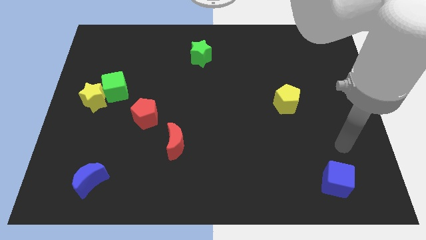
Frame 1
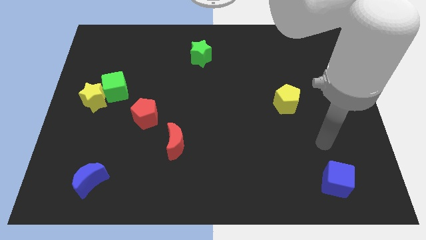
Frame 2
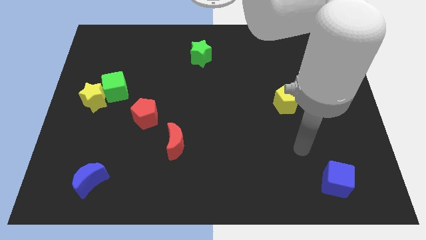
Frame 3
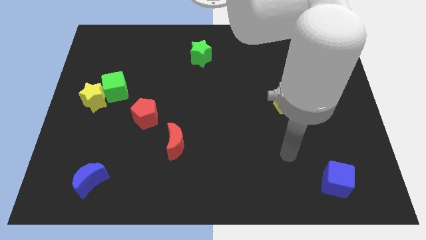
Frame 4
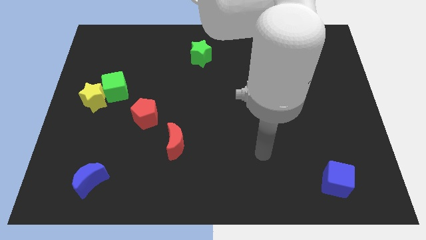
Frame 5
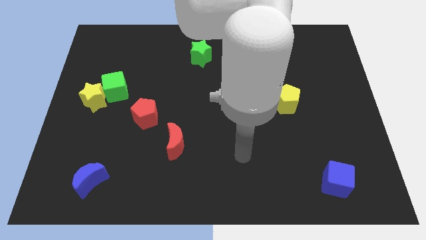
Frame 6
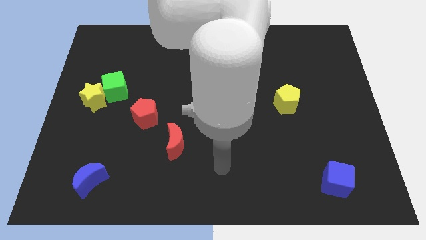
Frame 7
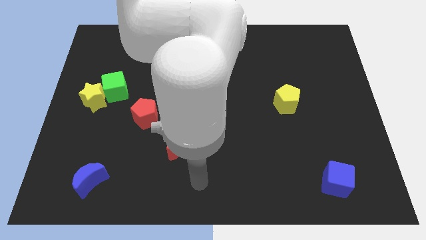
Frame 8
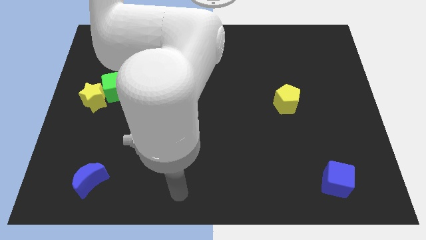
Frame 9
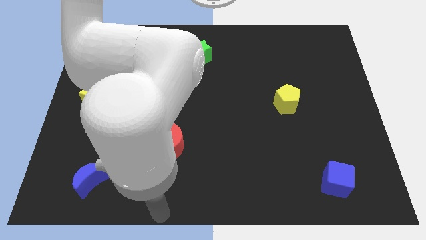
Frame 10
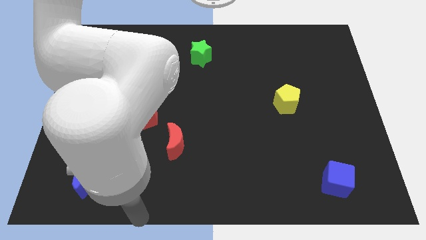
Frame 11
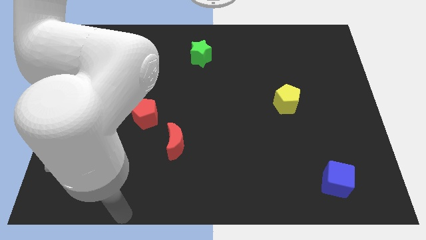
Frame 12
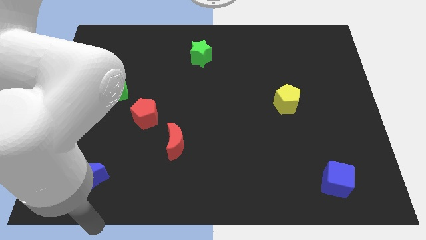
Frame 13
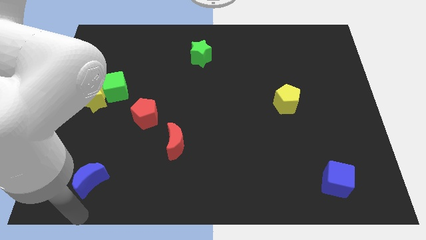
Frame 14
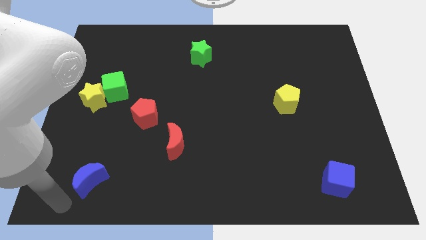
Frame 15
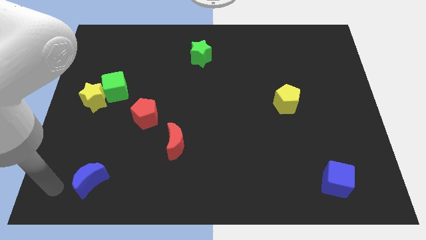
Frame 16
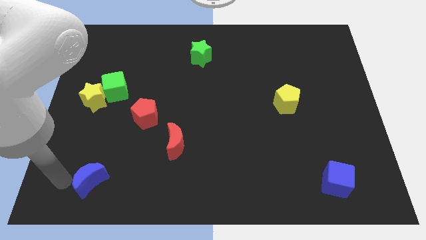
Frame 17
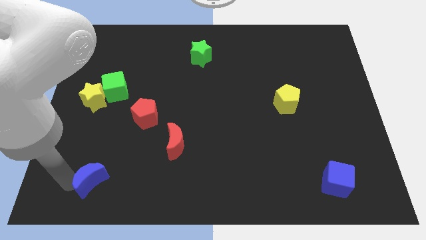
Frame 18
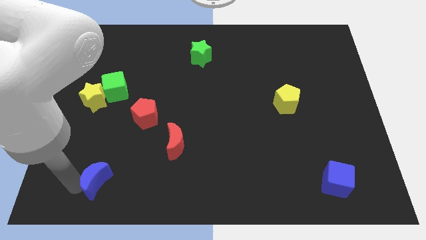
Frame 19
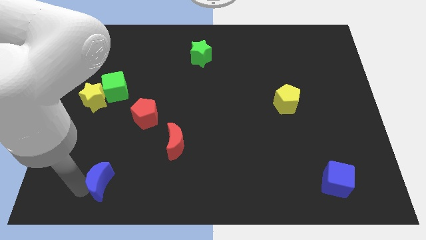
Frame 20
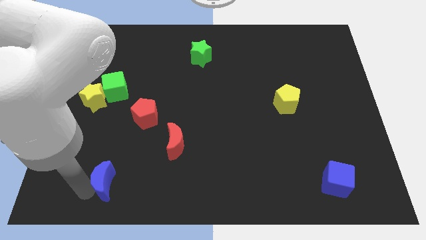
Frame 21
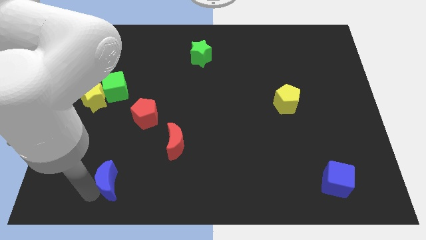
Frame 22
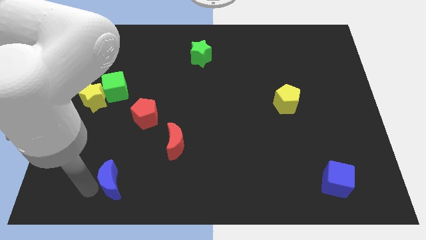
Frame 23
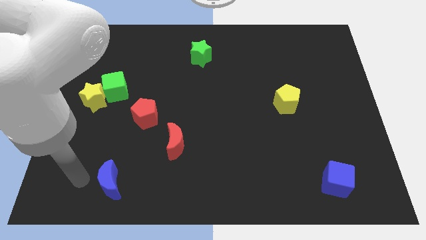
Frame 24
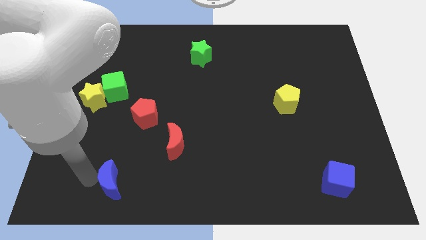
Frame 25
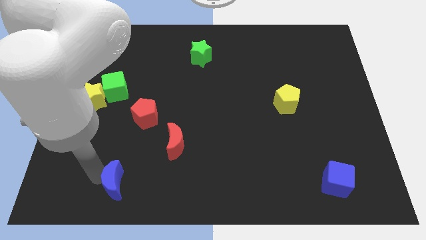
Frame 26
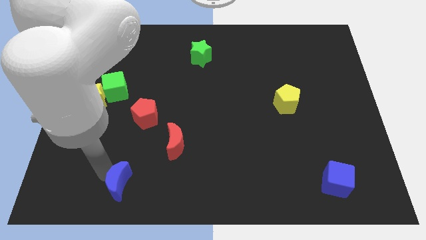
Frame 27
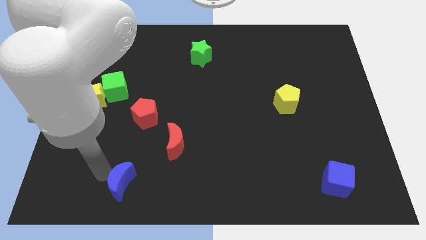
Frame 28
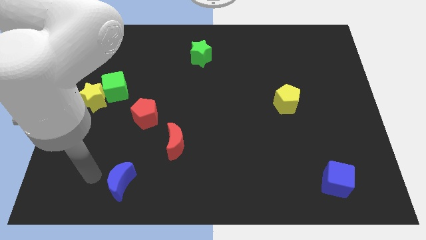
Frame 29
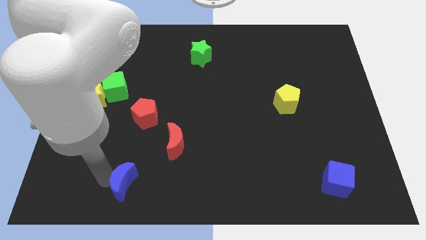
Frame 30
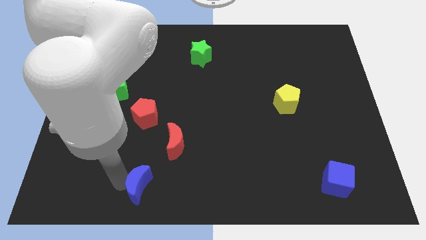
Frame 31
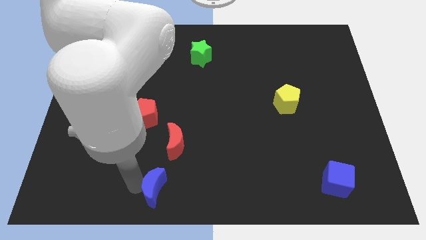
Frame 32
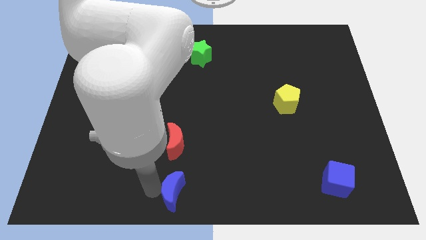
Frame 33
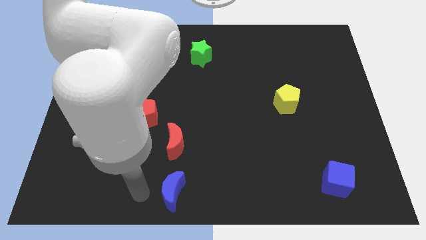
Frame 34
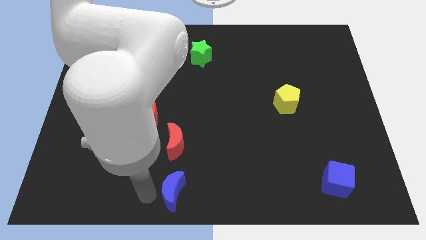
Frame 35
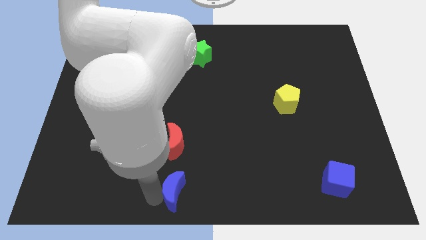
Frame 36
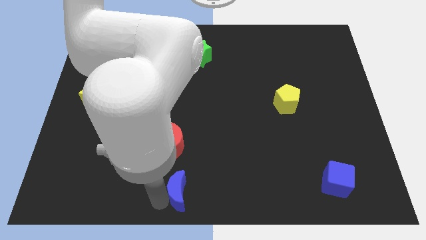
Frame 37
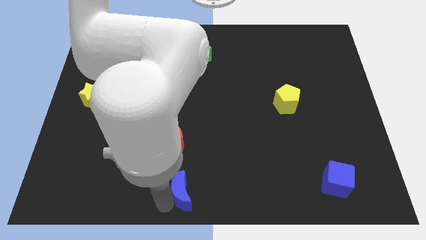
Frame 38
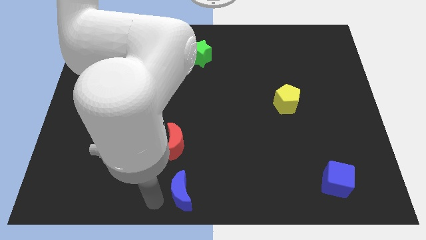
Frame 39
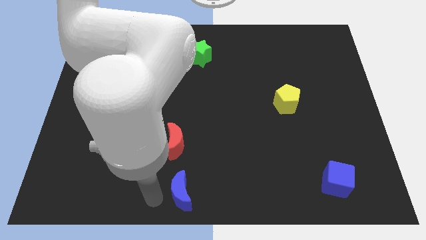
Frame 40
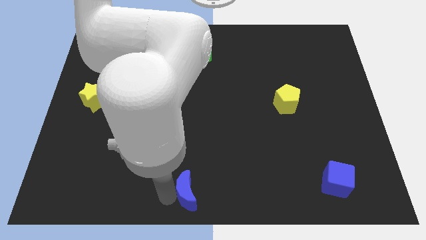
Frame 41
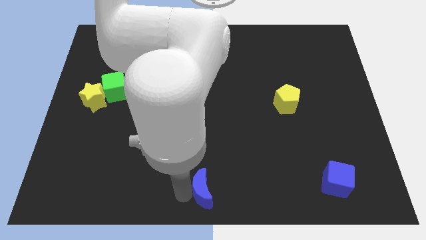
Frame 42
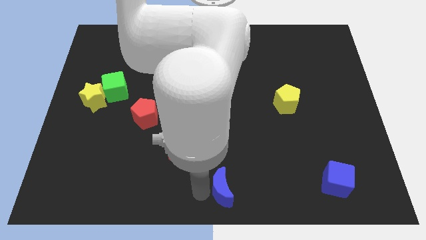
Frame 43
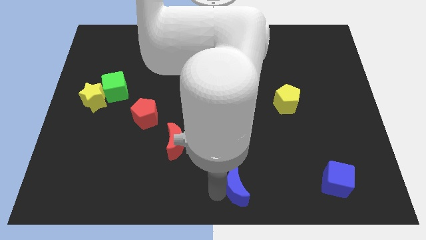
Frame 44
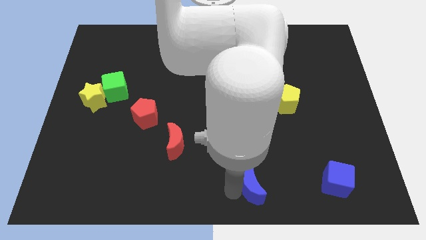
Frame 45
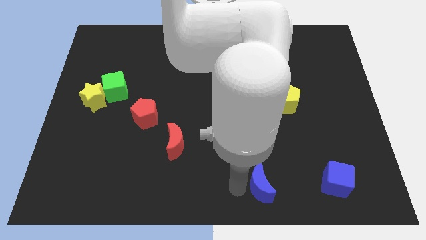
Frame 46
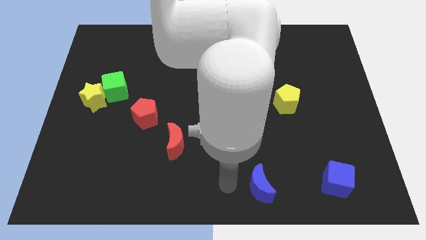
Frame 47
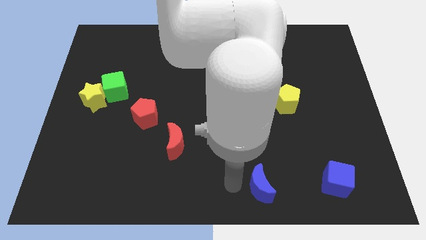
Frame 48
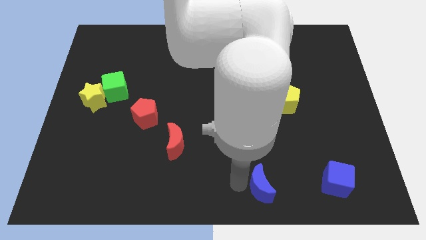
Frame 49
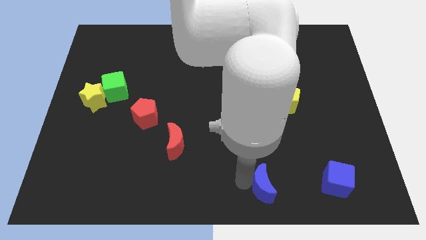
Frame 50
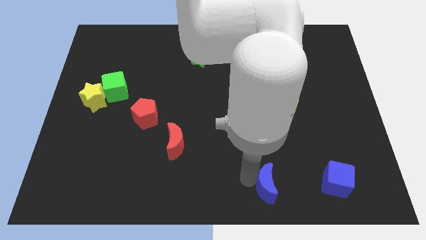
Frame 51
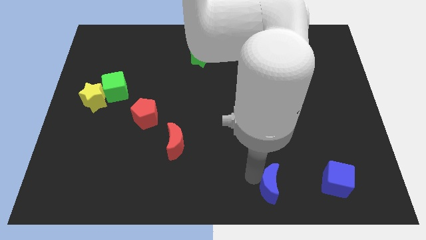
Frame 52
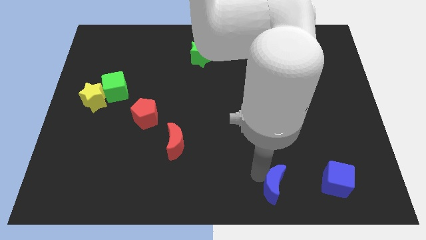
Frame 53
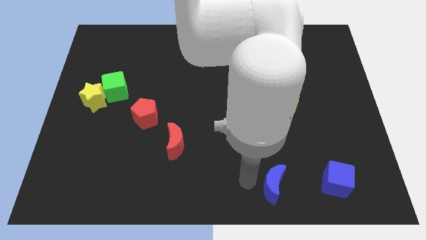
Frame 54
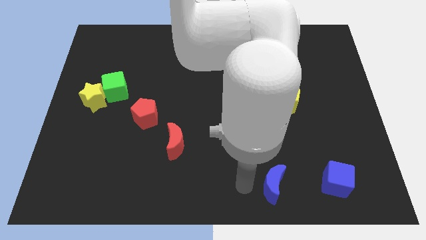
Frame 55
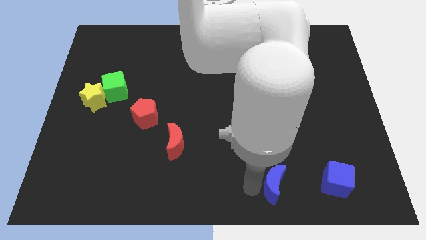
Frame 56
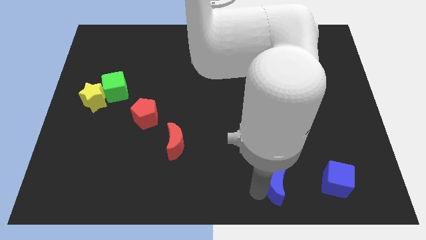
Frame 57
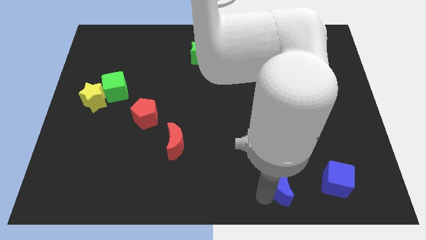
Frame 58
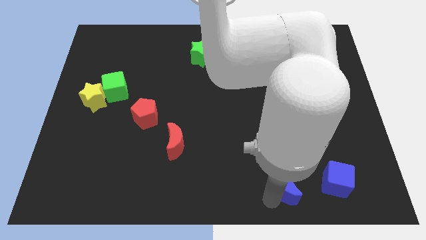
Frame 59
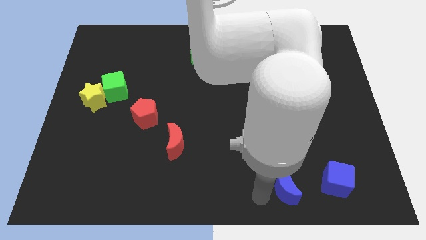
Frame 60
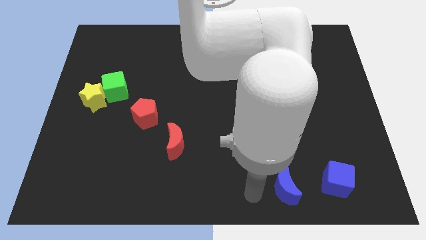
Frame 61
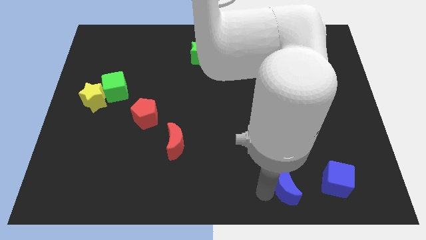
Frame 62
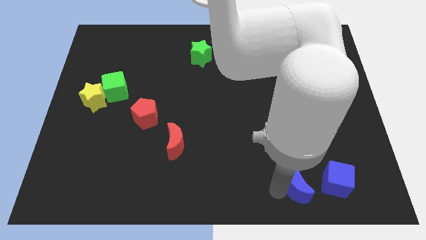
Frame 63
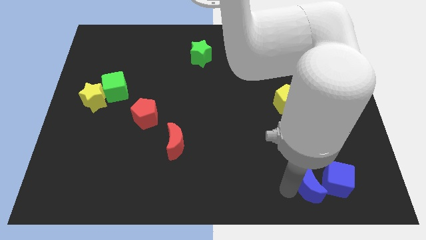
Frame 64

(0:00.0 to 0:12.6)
move the blue moon next to the blue cube
